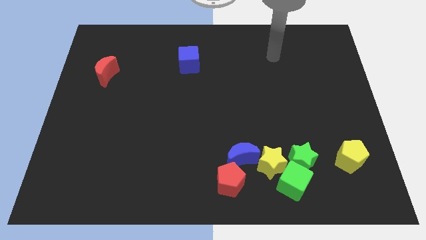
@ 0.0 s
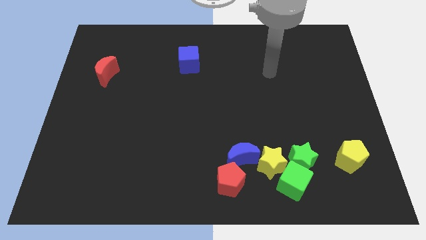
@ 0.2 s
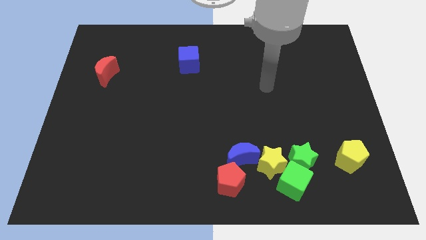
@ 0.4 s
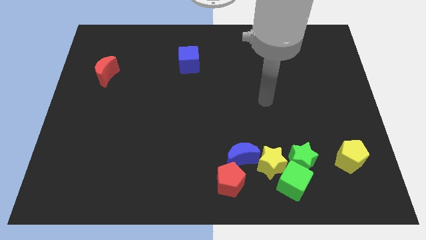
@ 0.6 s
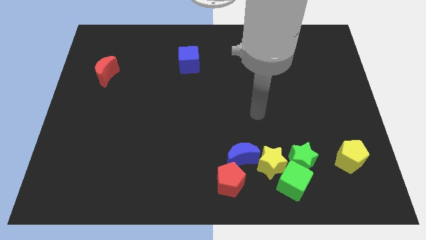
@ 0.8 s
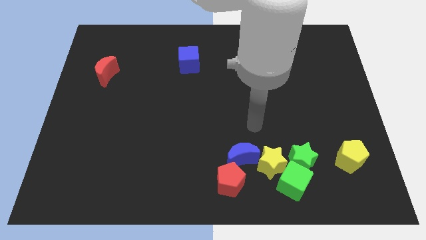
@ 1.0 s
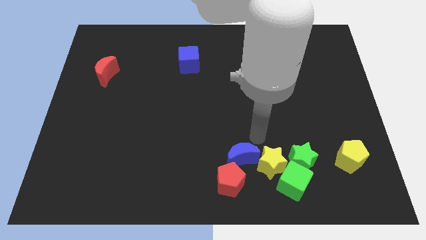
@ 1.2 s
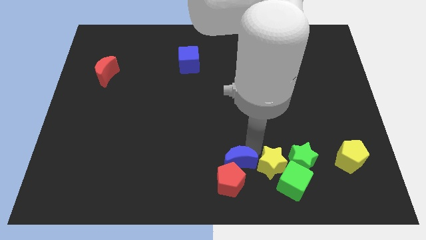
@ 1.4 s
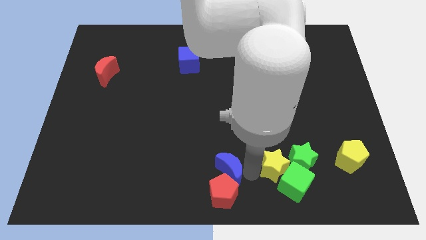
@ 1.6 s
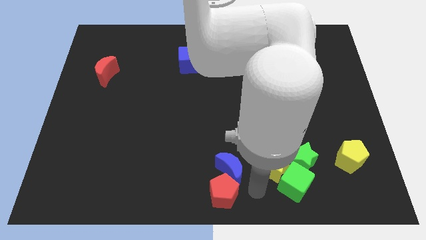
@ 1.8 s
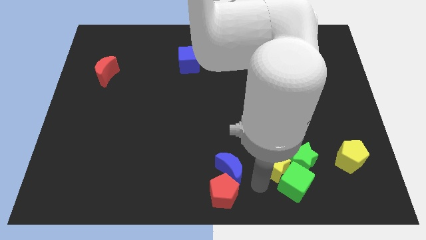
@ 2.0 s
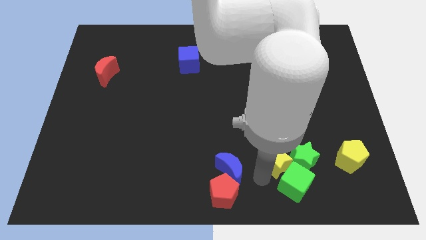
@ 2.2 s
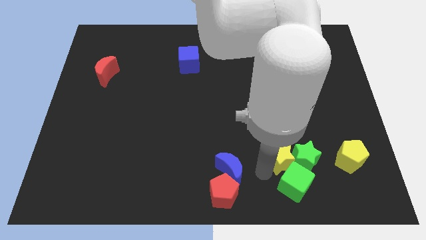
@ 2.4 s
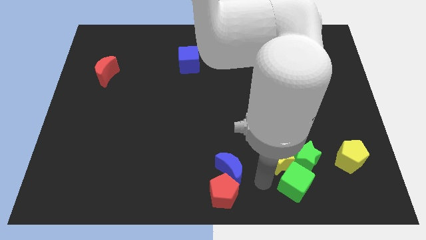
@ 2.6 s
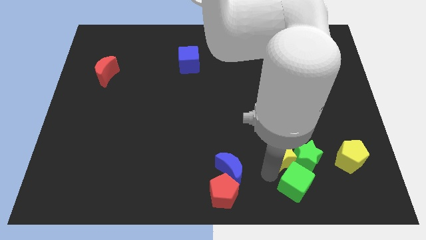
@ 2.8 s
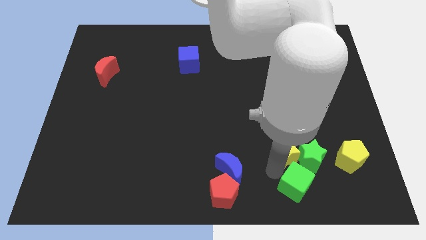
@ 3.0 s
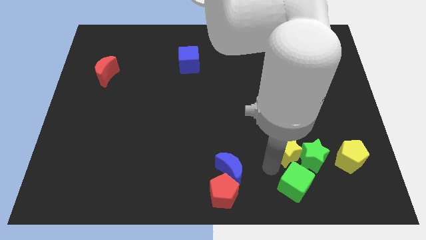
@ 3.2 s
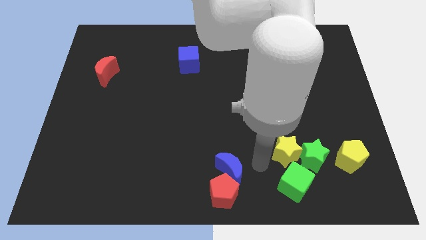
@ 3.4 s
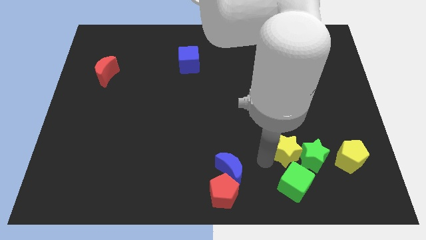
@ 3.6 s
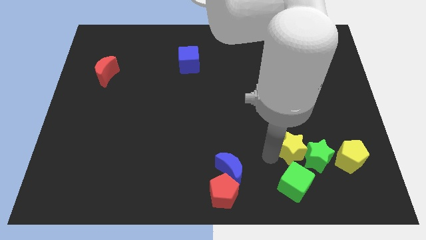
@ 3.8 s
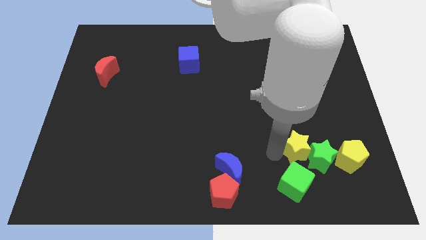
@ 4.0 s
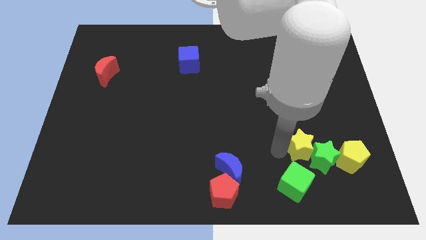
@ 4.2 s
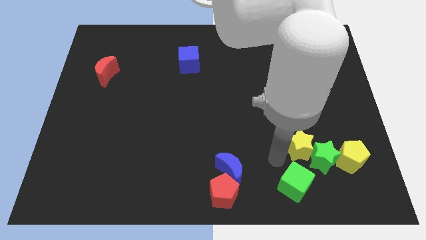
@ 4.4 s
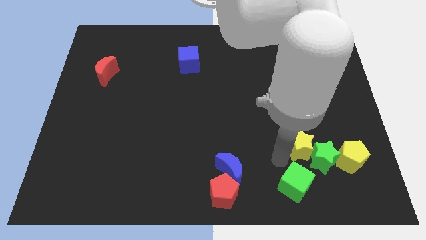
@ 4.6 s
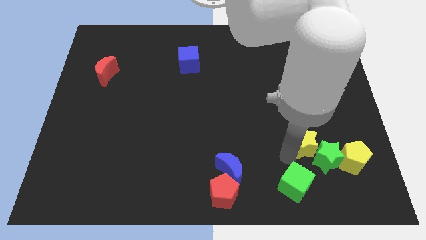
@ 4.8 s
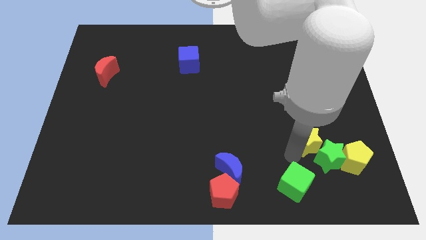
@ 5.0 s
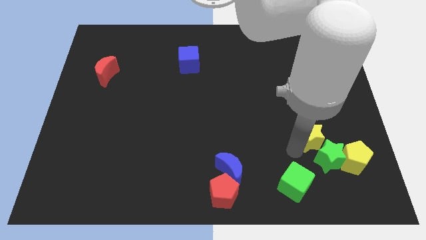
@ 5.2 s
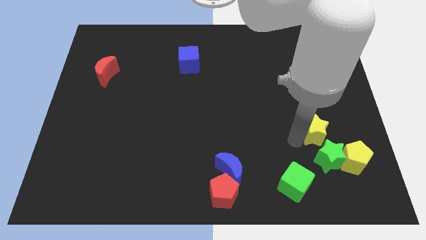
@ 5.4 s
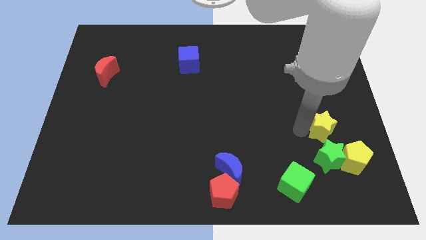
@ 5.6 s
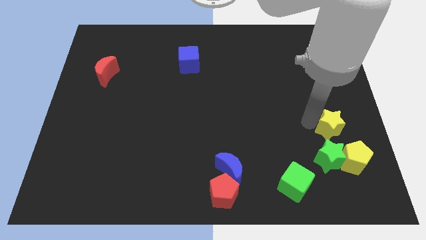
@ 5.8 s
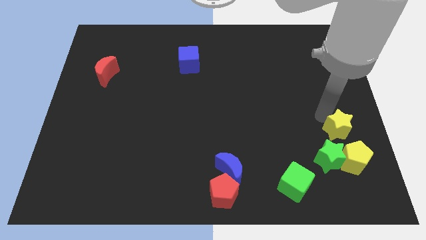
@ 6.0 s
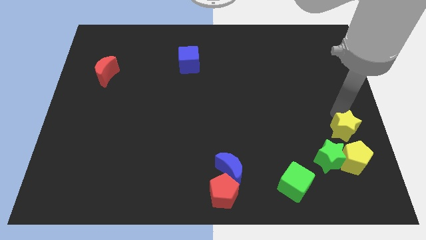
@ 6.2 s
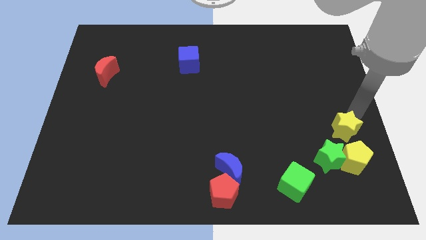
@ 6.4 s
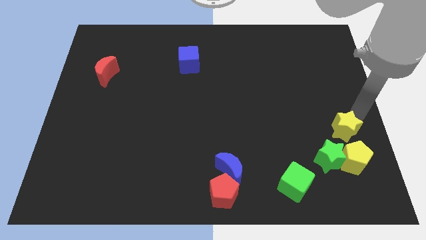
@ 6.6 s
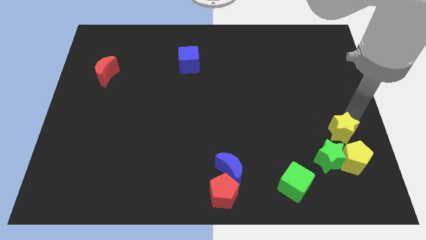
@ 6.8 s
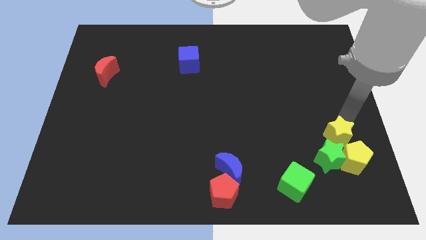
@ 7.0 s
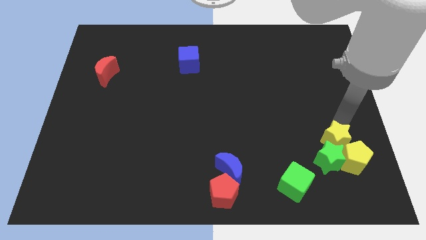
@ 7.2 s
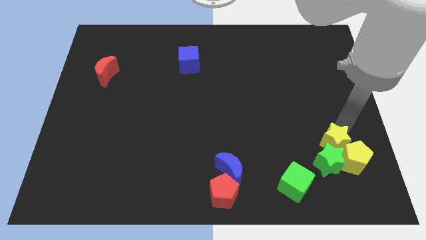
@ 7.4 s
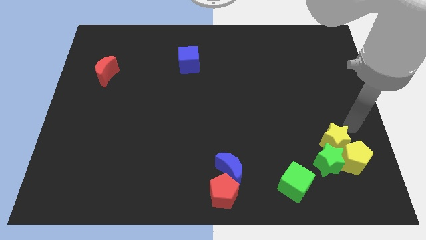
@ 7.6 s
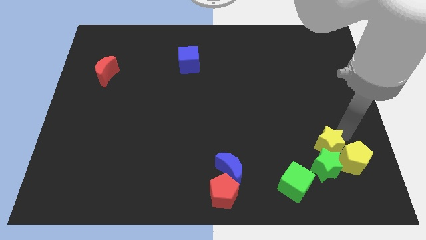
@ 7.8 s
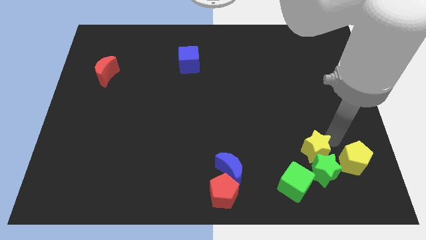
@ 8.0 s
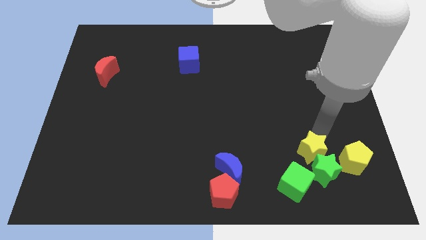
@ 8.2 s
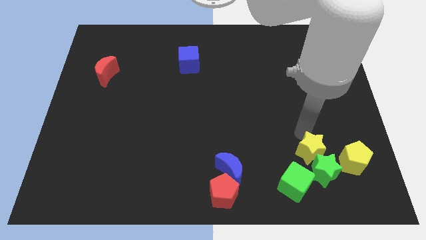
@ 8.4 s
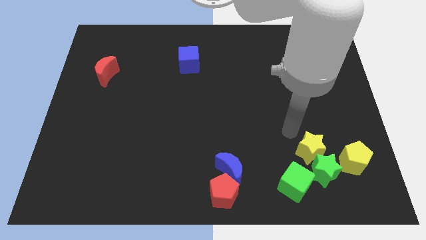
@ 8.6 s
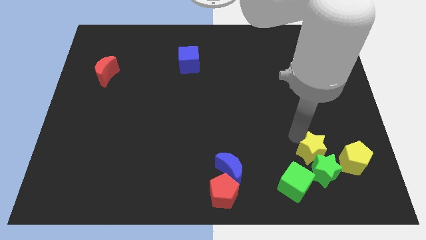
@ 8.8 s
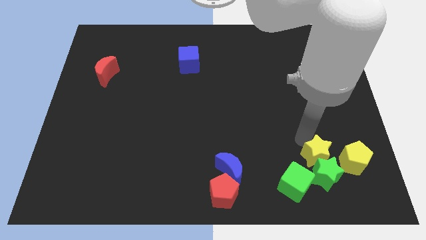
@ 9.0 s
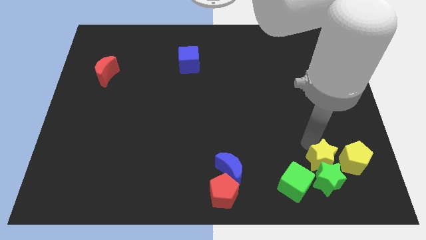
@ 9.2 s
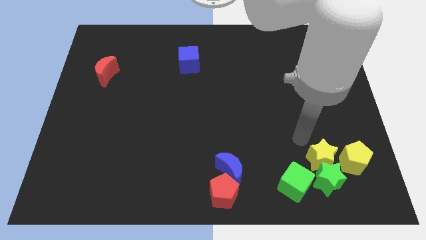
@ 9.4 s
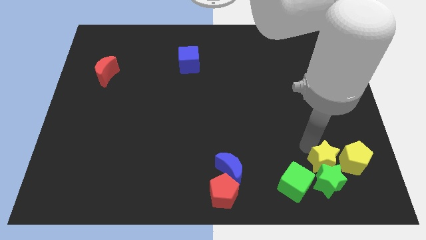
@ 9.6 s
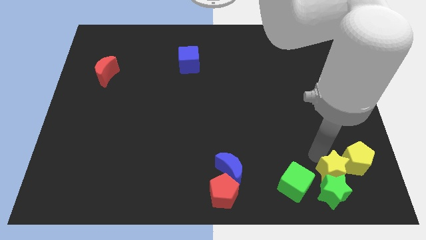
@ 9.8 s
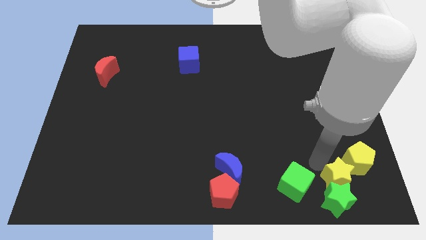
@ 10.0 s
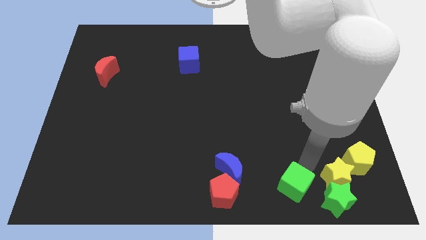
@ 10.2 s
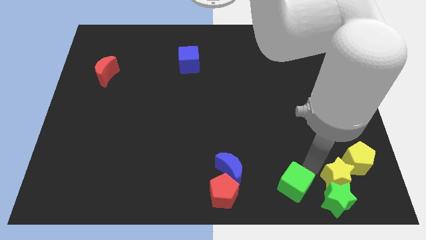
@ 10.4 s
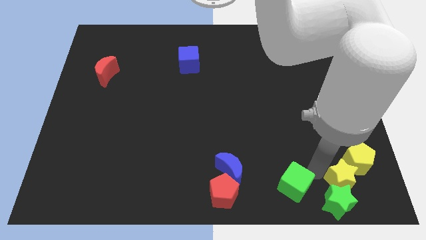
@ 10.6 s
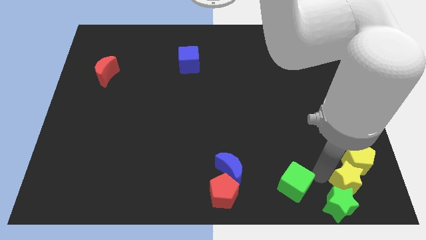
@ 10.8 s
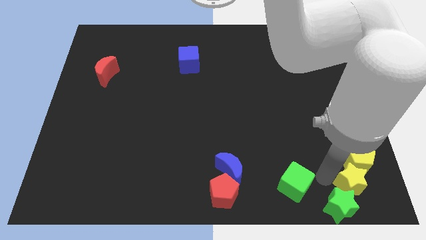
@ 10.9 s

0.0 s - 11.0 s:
slide the yellow star to the bottom right corner

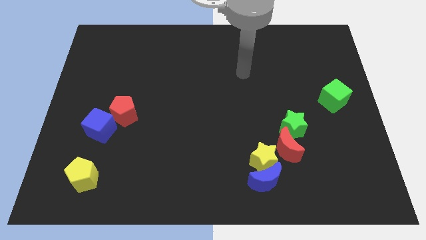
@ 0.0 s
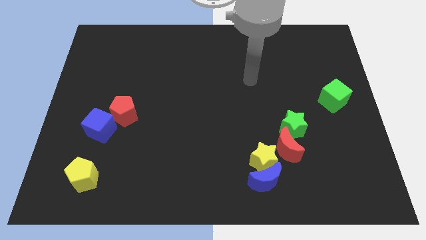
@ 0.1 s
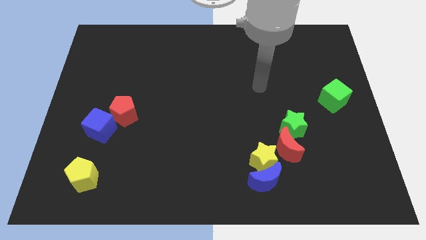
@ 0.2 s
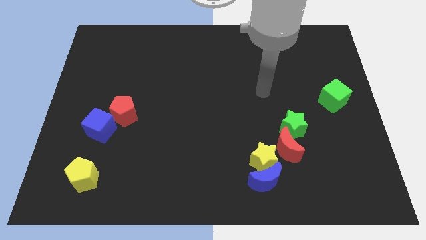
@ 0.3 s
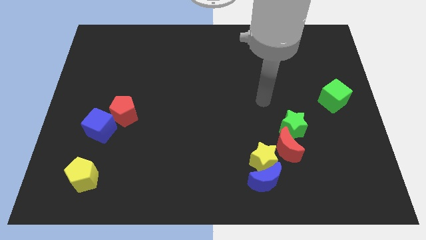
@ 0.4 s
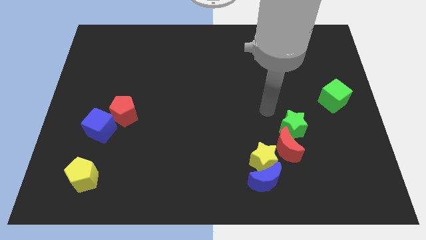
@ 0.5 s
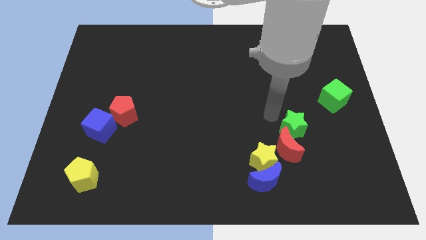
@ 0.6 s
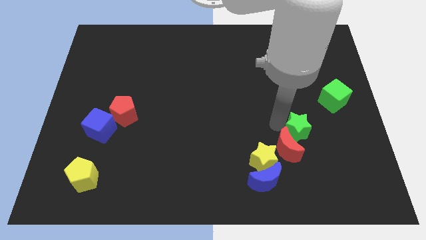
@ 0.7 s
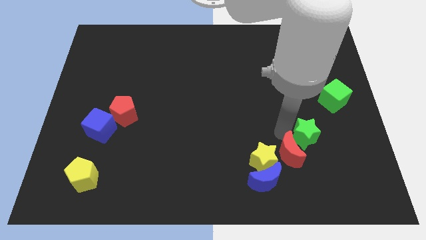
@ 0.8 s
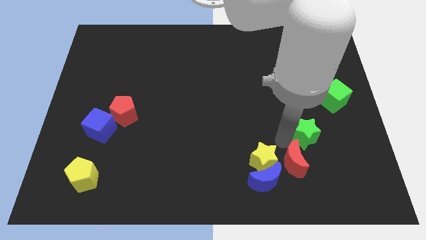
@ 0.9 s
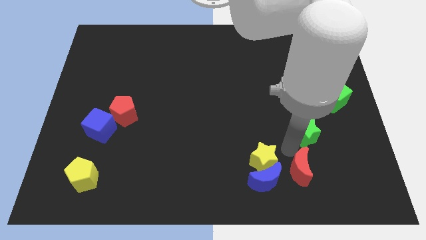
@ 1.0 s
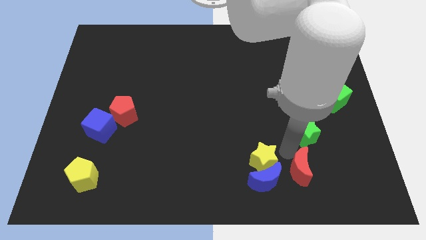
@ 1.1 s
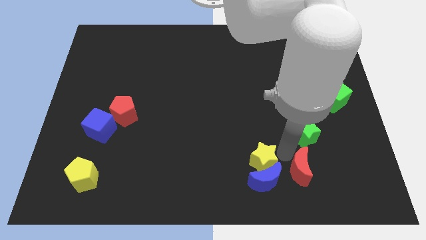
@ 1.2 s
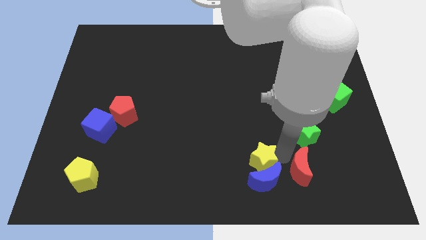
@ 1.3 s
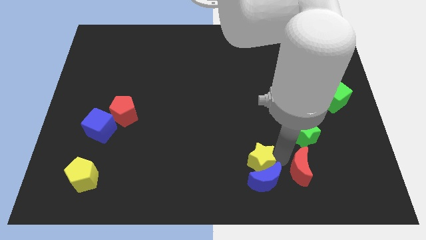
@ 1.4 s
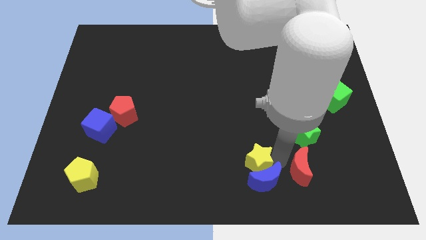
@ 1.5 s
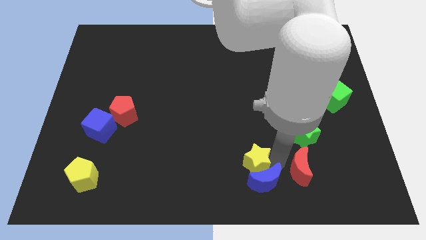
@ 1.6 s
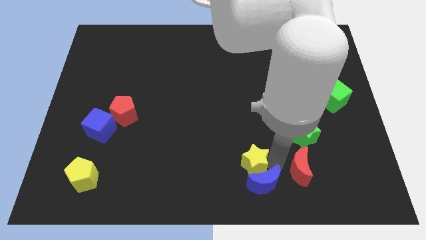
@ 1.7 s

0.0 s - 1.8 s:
put the yellow star to the bottom side

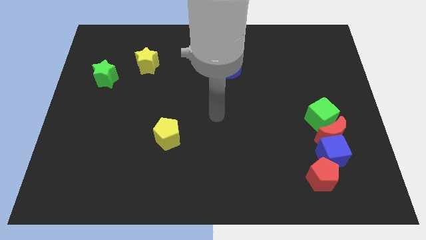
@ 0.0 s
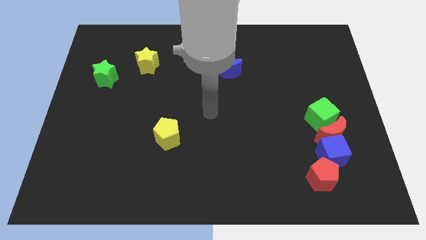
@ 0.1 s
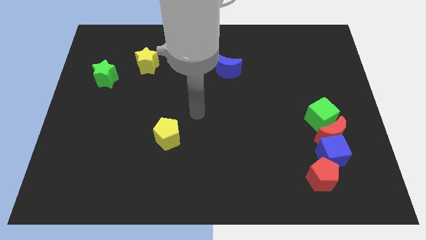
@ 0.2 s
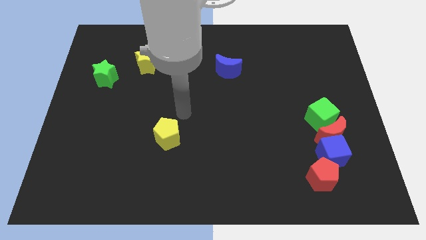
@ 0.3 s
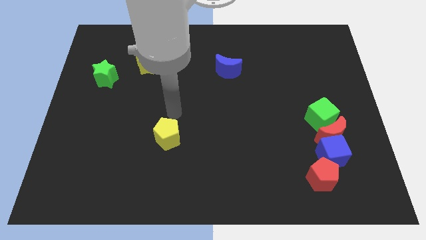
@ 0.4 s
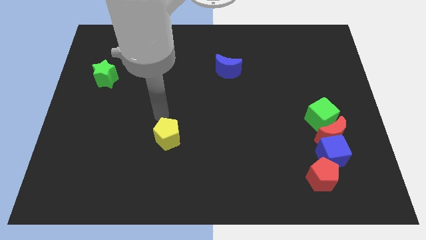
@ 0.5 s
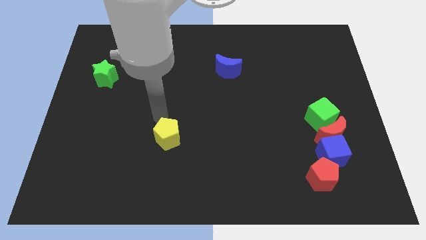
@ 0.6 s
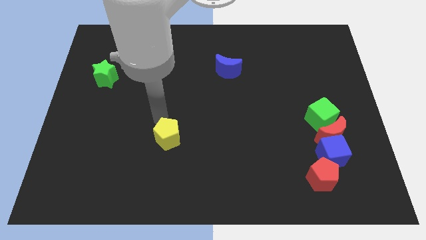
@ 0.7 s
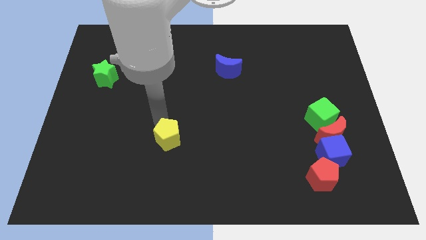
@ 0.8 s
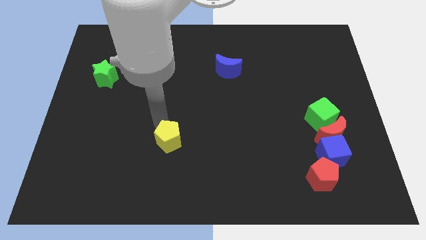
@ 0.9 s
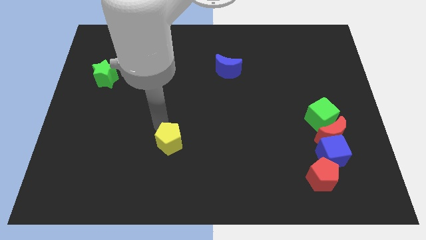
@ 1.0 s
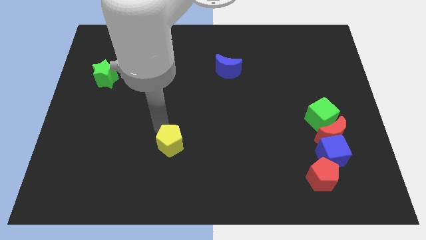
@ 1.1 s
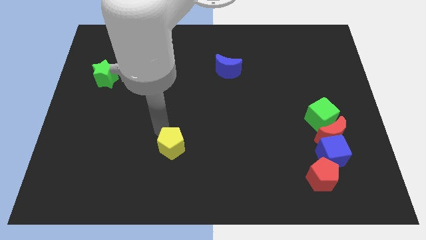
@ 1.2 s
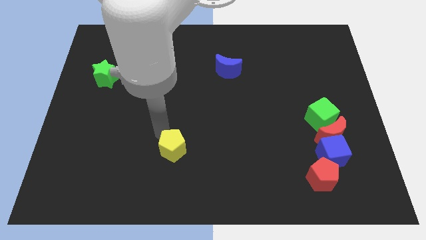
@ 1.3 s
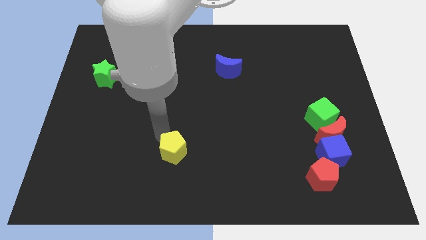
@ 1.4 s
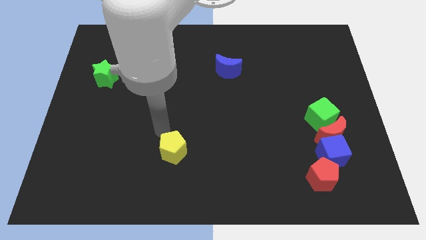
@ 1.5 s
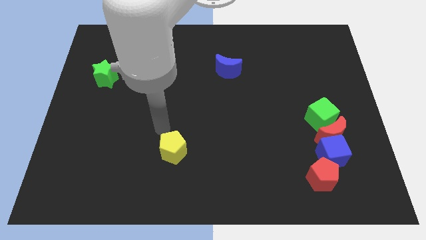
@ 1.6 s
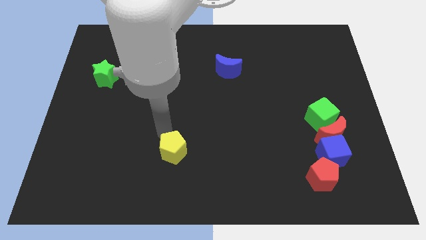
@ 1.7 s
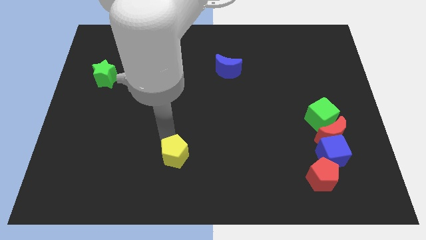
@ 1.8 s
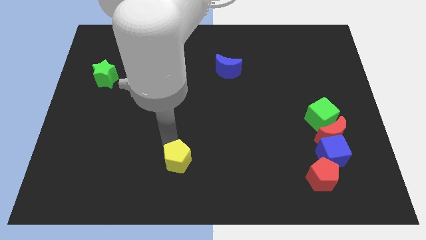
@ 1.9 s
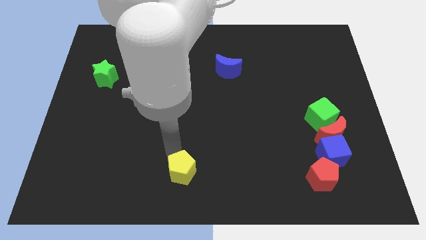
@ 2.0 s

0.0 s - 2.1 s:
move the yellow pentagon to the bottom
